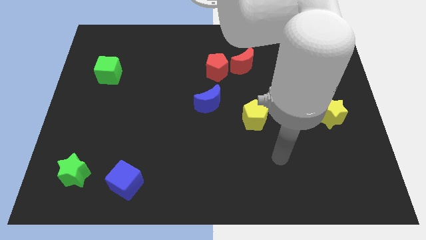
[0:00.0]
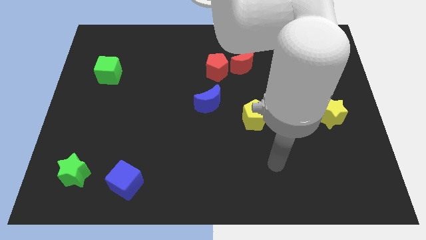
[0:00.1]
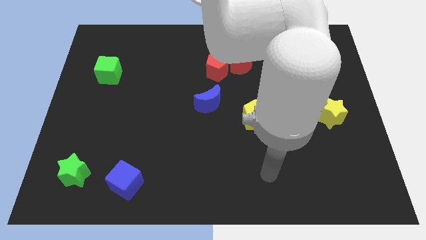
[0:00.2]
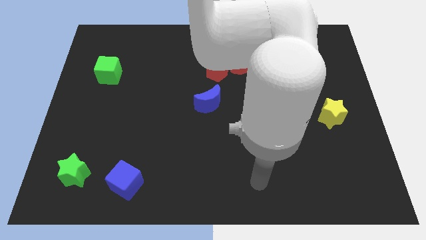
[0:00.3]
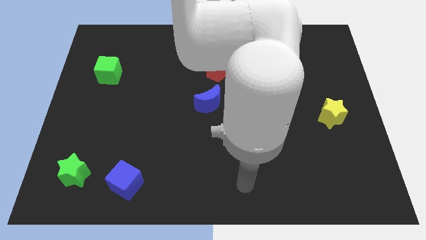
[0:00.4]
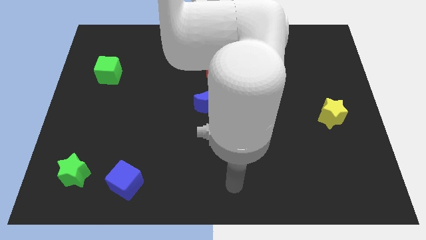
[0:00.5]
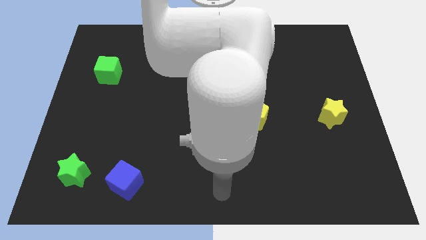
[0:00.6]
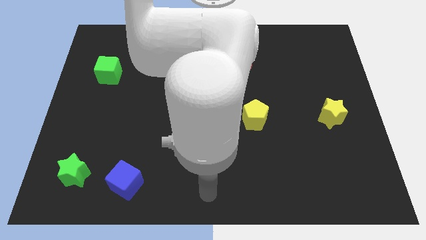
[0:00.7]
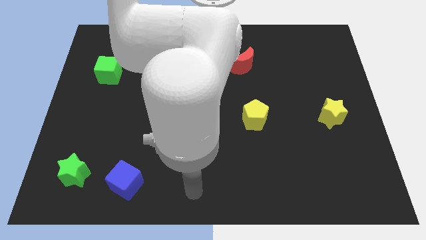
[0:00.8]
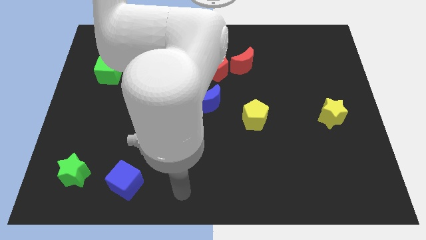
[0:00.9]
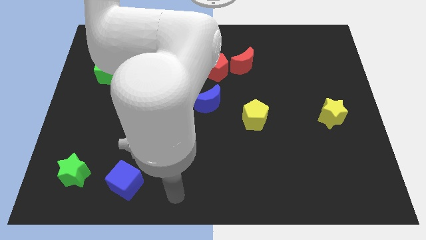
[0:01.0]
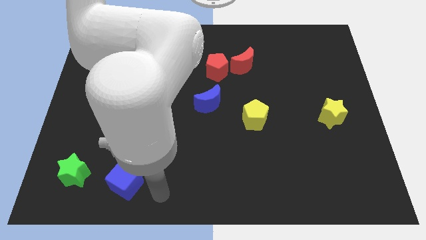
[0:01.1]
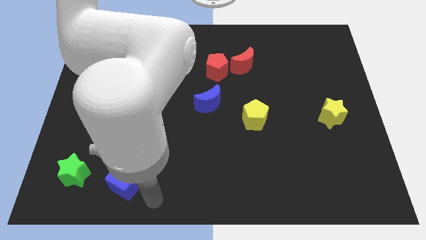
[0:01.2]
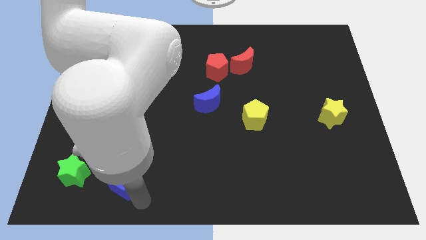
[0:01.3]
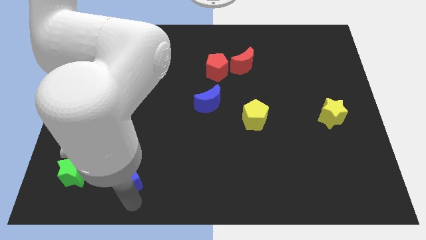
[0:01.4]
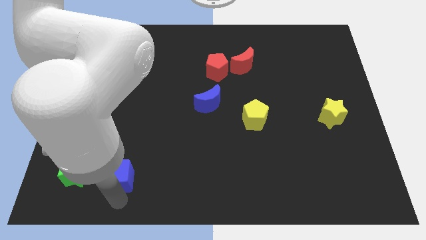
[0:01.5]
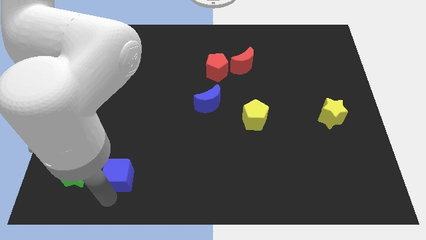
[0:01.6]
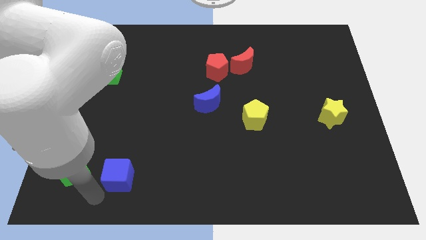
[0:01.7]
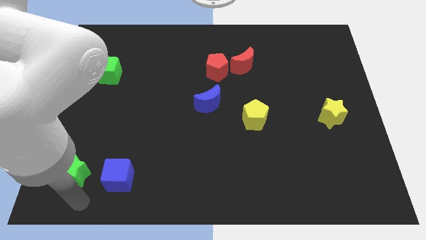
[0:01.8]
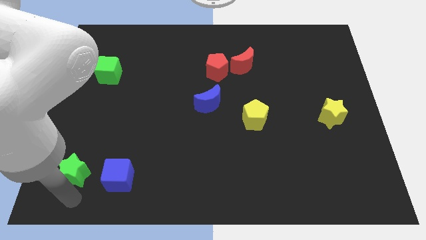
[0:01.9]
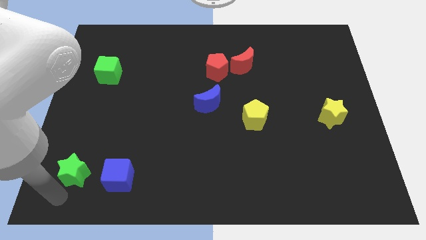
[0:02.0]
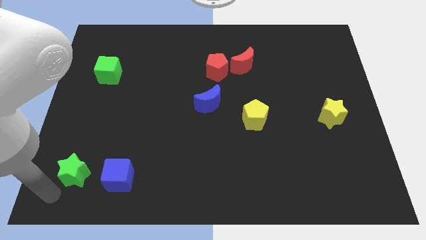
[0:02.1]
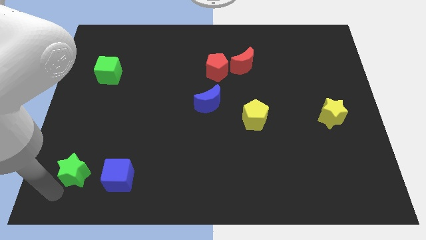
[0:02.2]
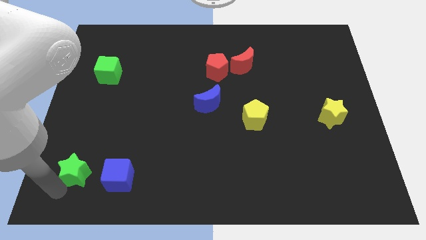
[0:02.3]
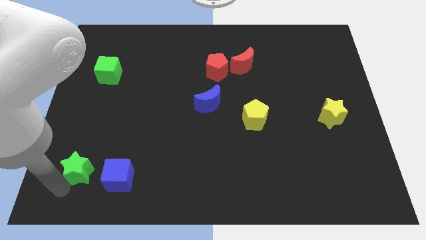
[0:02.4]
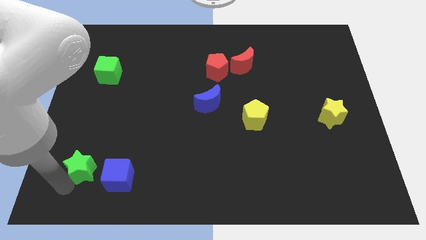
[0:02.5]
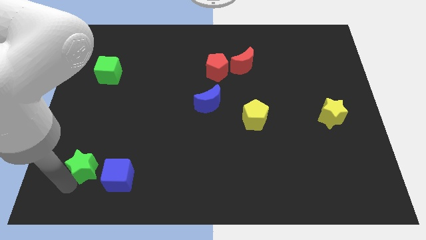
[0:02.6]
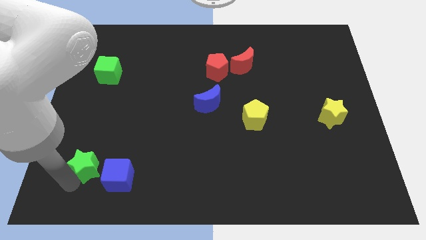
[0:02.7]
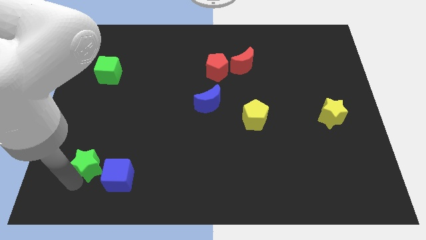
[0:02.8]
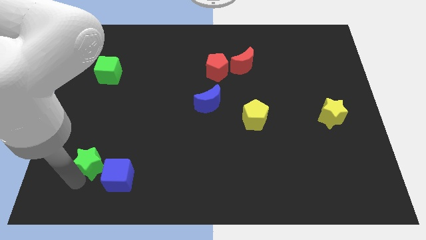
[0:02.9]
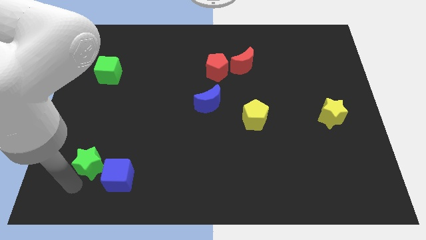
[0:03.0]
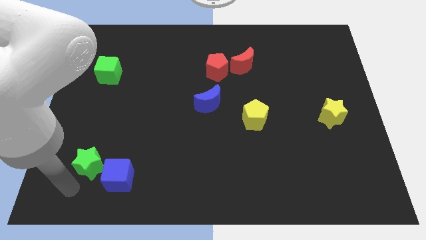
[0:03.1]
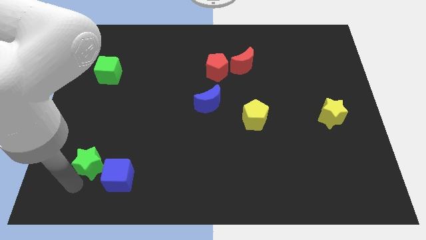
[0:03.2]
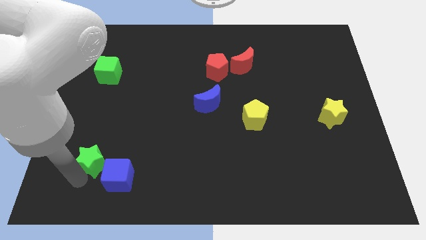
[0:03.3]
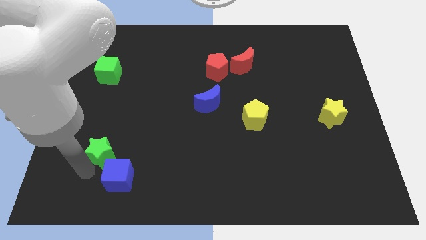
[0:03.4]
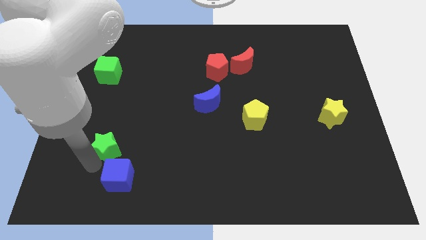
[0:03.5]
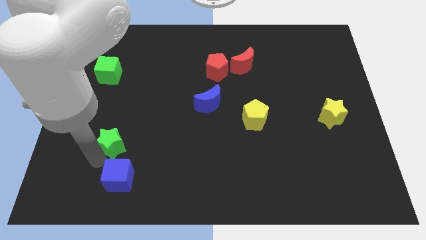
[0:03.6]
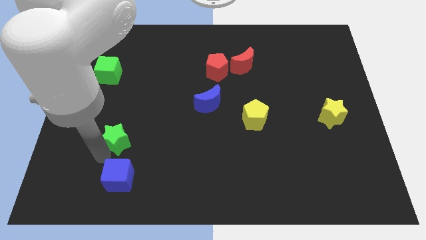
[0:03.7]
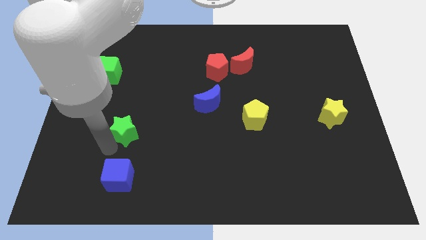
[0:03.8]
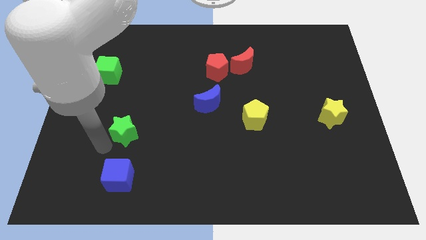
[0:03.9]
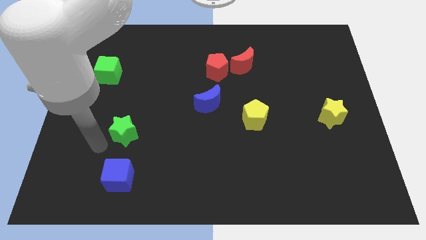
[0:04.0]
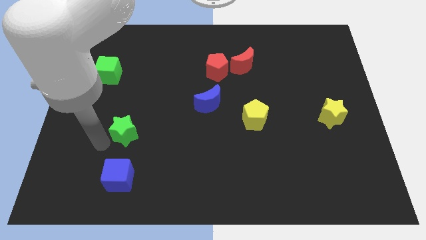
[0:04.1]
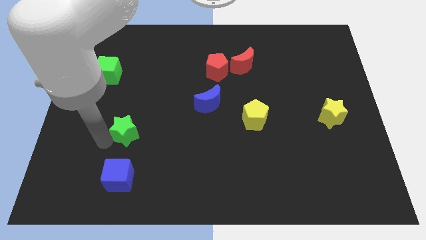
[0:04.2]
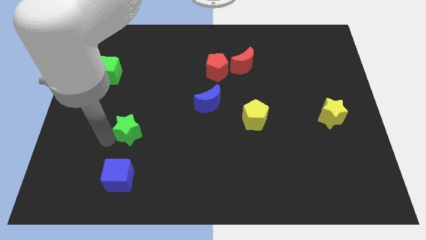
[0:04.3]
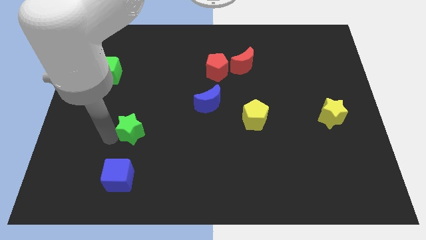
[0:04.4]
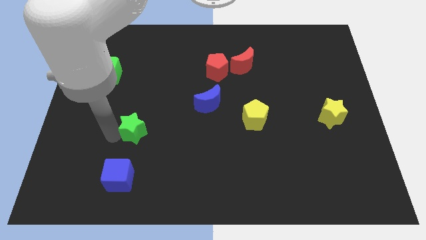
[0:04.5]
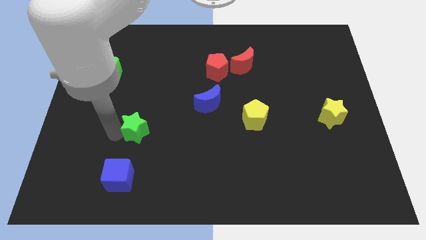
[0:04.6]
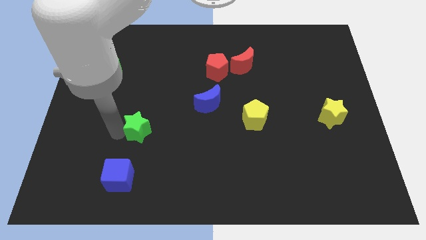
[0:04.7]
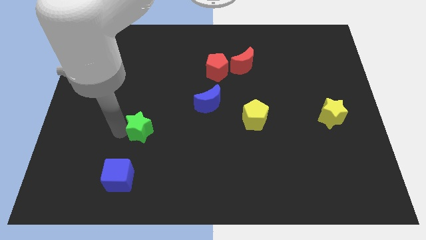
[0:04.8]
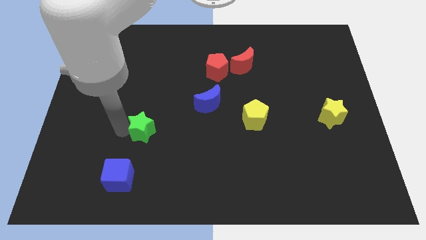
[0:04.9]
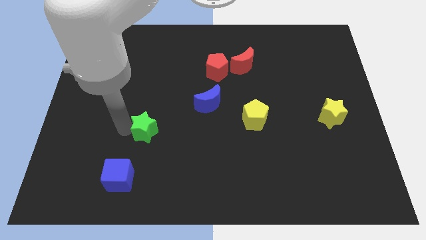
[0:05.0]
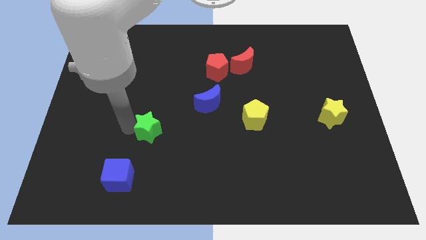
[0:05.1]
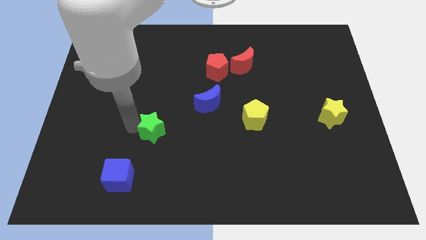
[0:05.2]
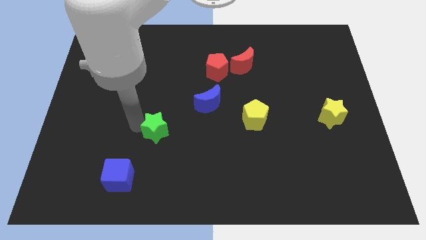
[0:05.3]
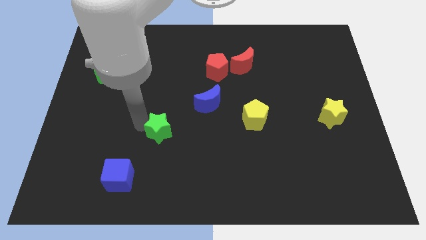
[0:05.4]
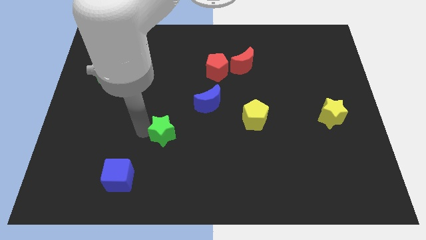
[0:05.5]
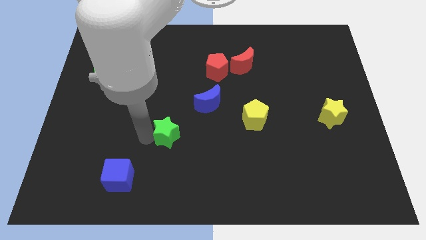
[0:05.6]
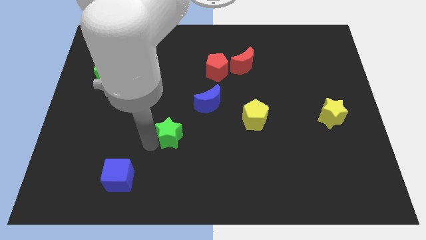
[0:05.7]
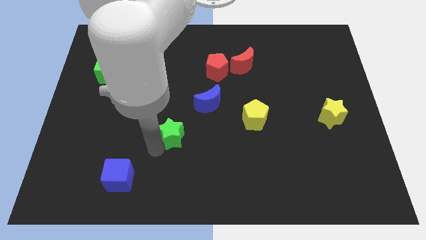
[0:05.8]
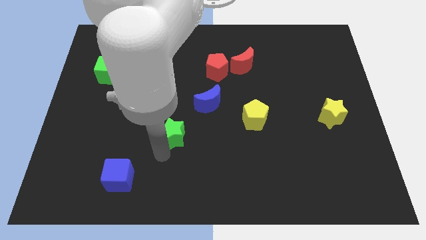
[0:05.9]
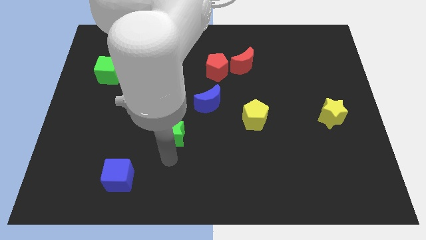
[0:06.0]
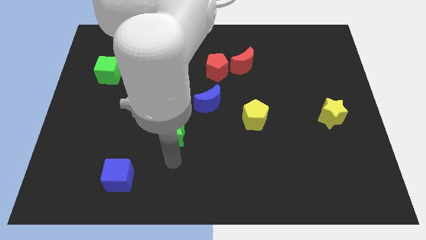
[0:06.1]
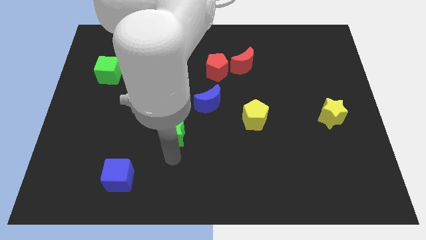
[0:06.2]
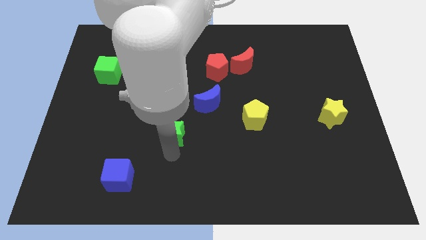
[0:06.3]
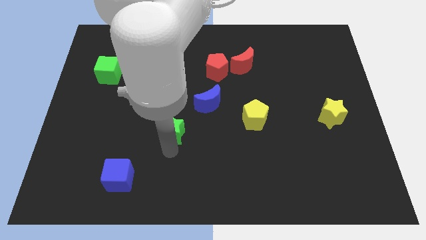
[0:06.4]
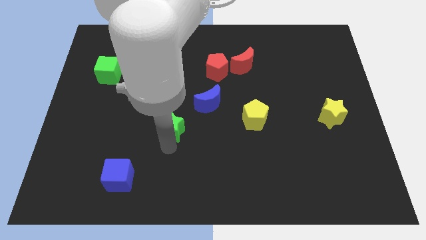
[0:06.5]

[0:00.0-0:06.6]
push the green star up and right diagonally

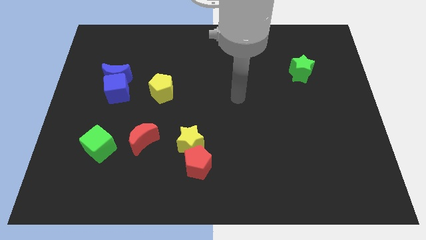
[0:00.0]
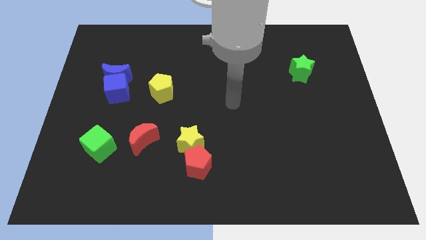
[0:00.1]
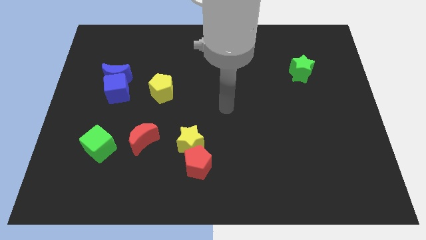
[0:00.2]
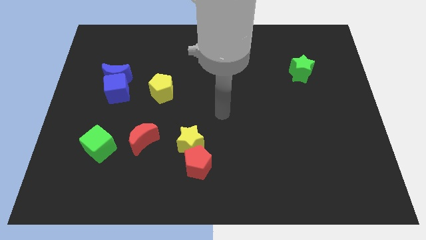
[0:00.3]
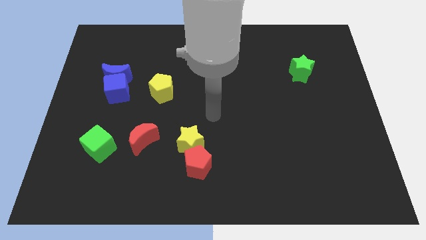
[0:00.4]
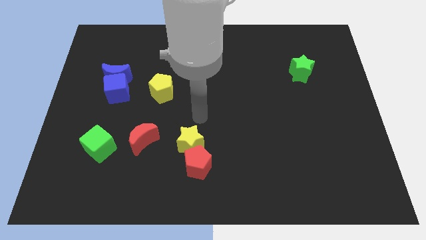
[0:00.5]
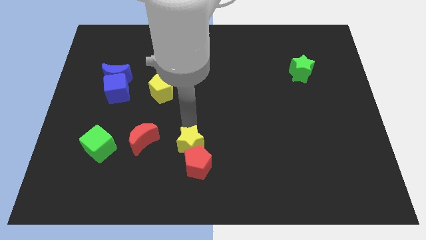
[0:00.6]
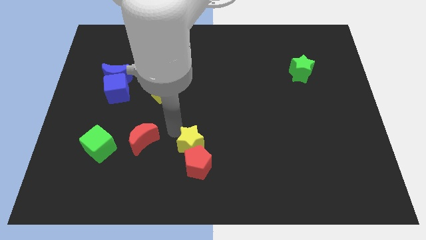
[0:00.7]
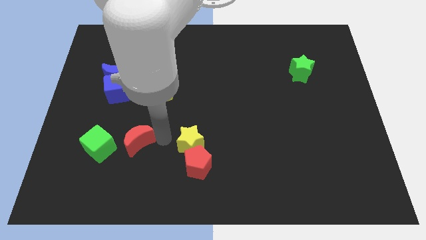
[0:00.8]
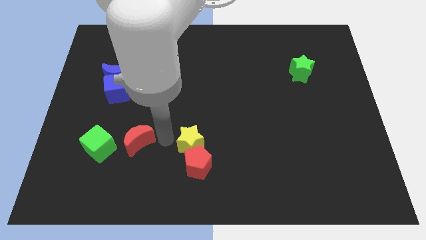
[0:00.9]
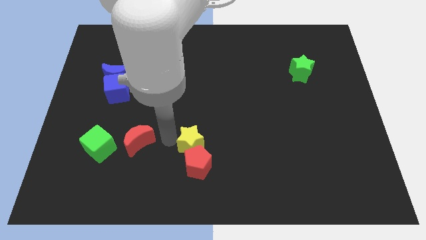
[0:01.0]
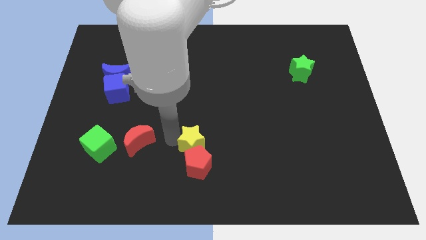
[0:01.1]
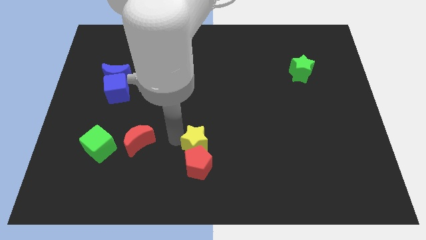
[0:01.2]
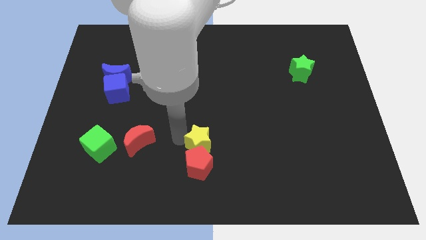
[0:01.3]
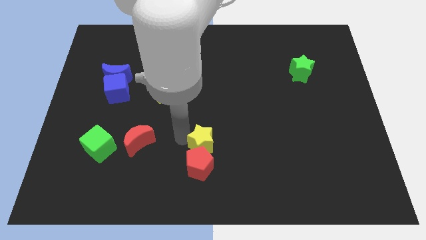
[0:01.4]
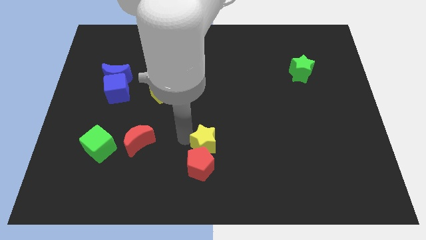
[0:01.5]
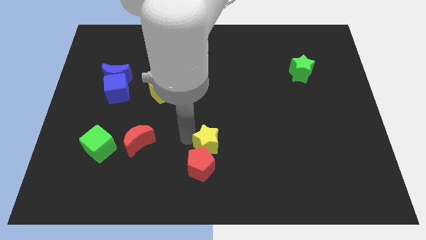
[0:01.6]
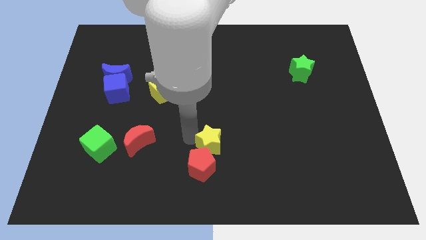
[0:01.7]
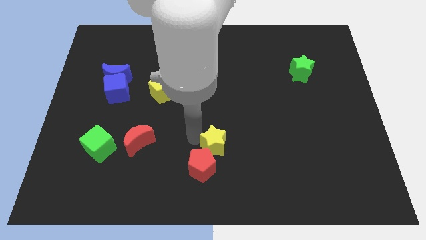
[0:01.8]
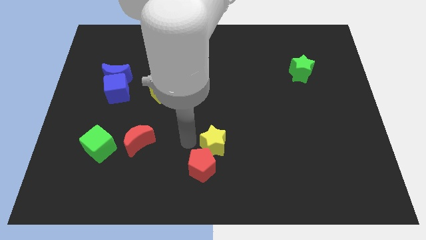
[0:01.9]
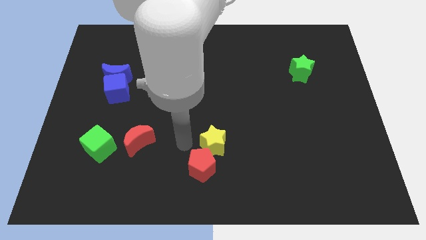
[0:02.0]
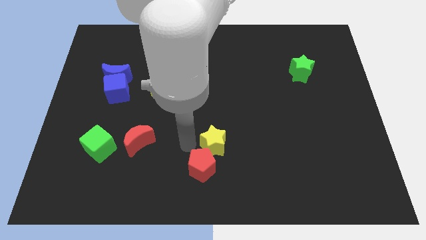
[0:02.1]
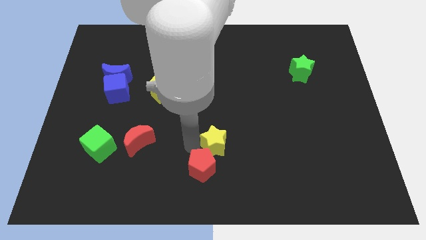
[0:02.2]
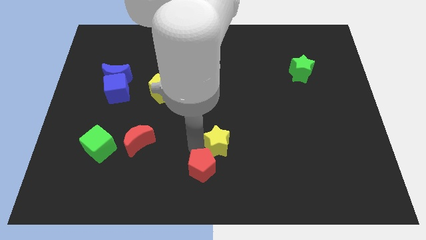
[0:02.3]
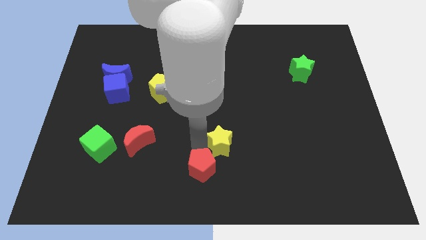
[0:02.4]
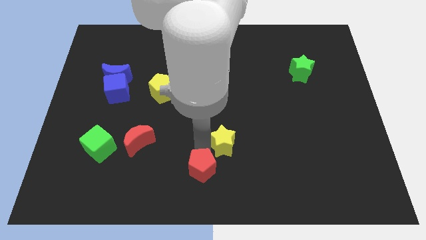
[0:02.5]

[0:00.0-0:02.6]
slide the yellow star to the right somewhat
